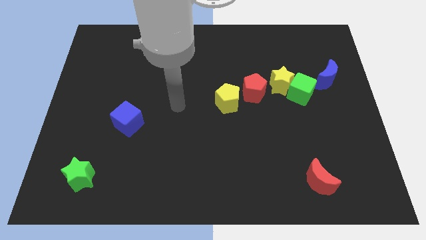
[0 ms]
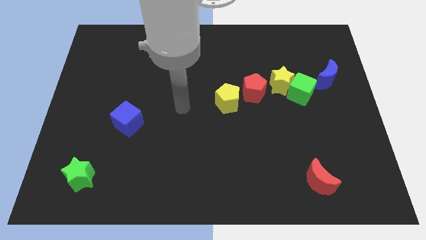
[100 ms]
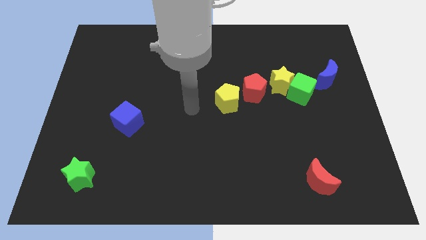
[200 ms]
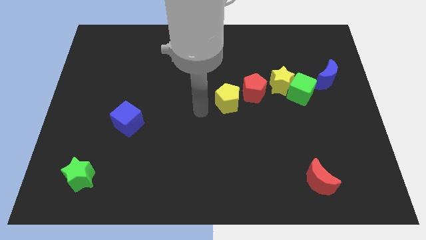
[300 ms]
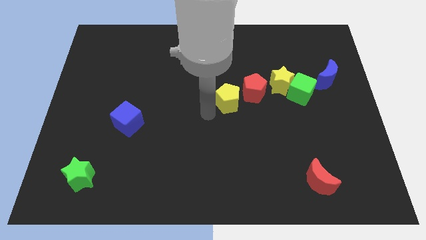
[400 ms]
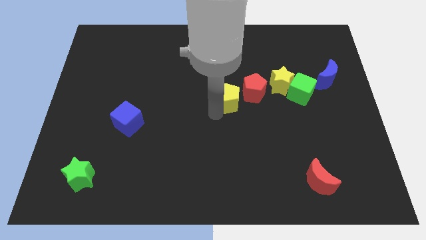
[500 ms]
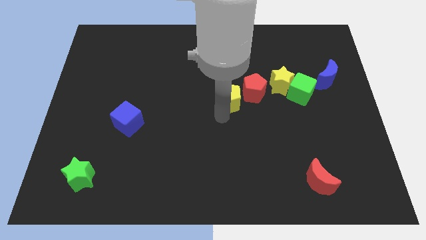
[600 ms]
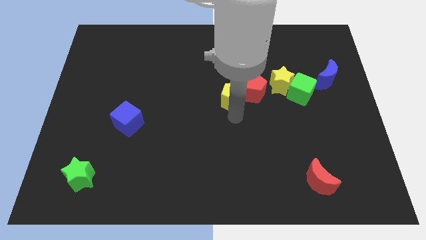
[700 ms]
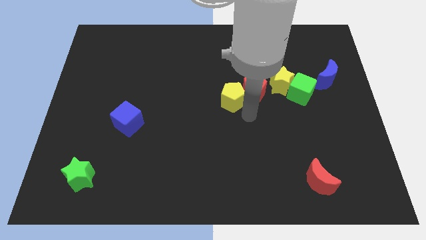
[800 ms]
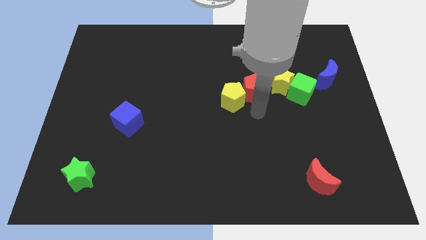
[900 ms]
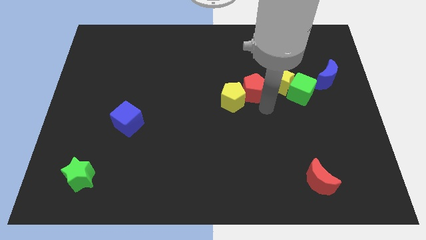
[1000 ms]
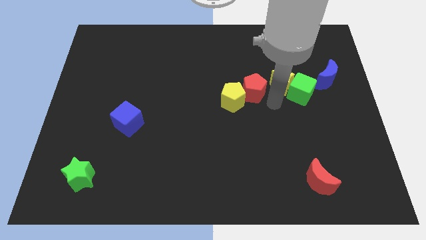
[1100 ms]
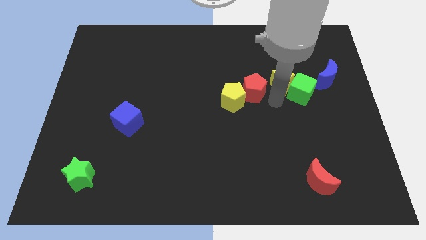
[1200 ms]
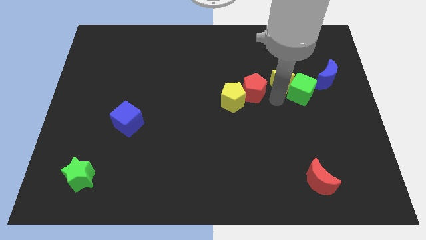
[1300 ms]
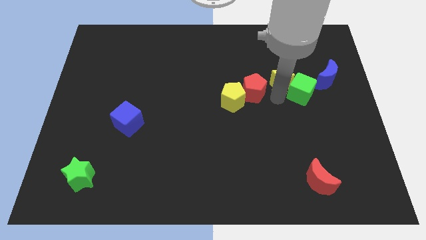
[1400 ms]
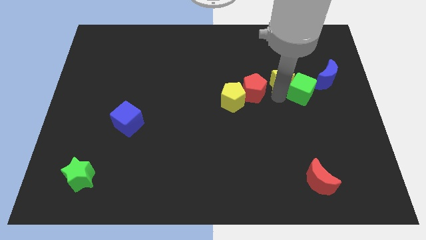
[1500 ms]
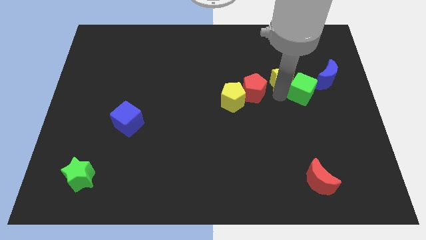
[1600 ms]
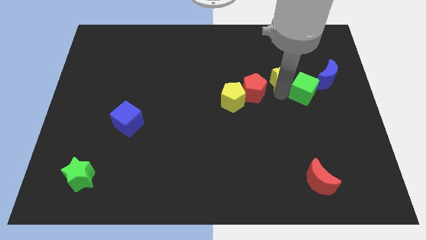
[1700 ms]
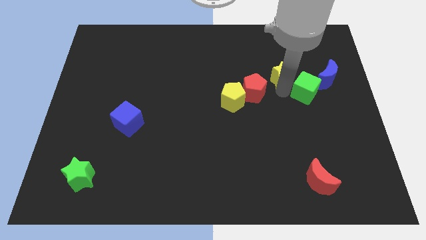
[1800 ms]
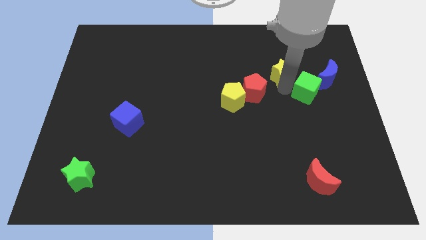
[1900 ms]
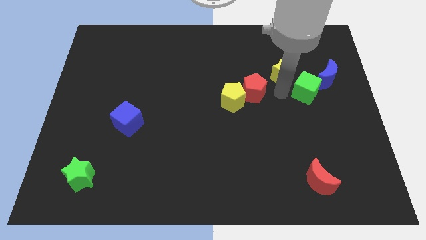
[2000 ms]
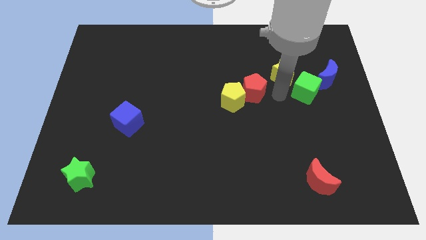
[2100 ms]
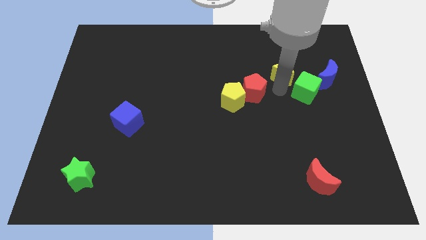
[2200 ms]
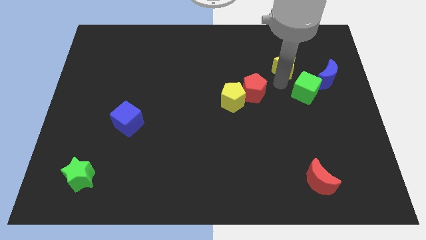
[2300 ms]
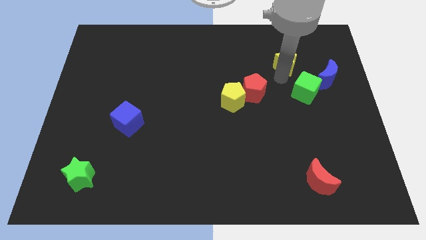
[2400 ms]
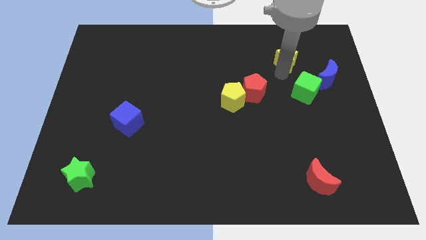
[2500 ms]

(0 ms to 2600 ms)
pull the yellow star apart from the green cube and red pentagon

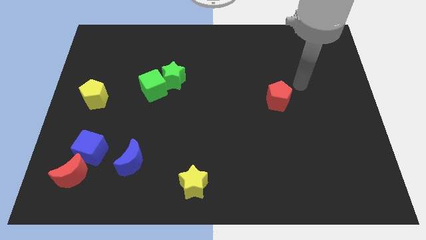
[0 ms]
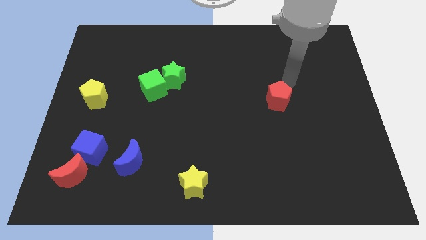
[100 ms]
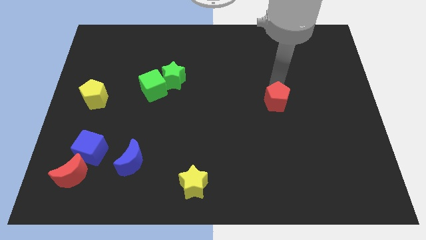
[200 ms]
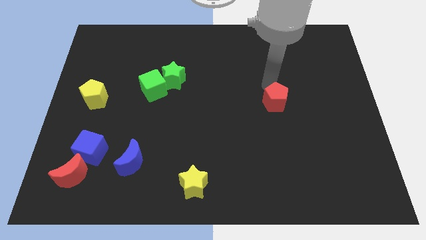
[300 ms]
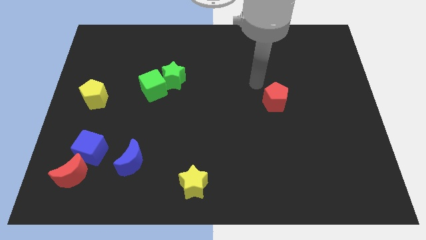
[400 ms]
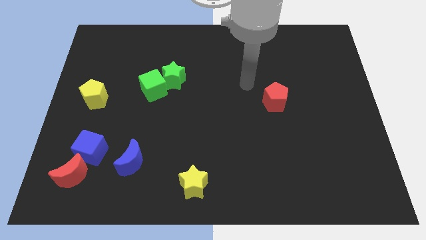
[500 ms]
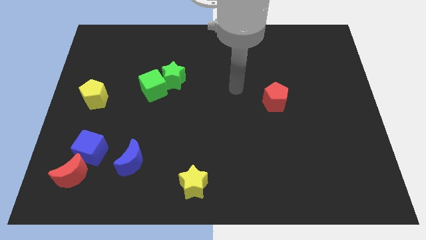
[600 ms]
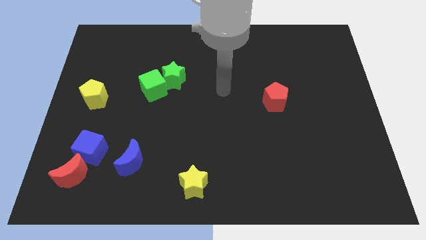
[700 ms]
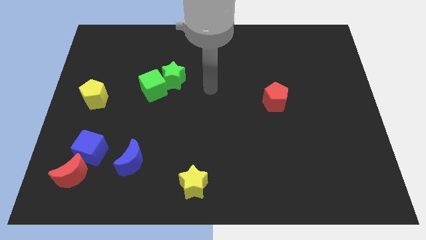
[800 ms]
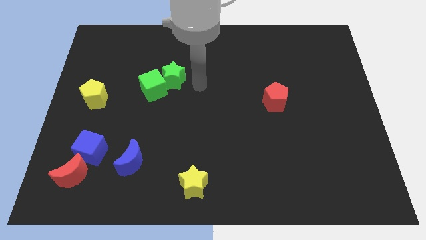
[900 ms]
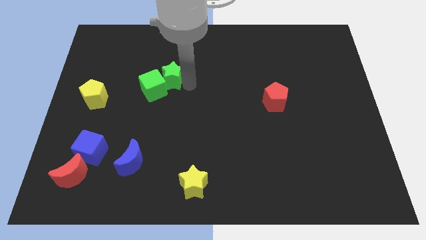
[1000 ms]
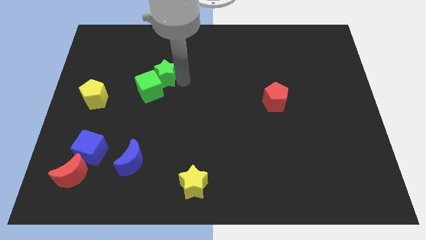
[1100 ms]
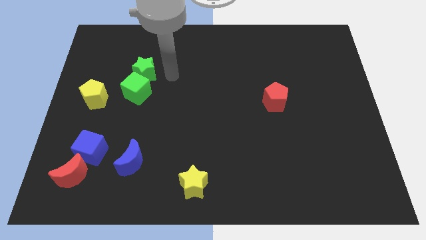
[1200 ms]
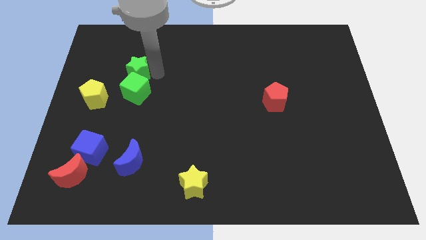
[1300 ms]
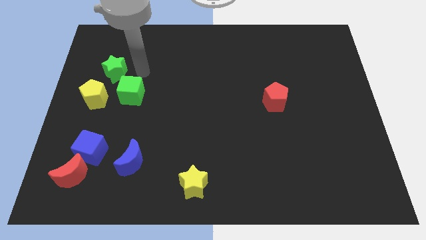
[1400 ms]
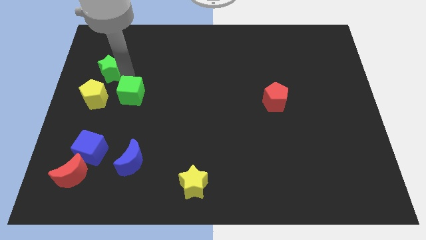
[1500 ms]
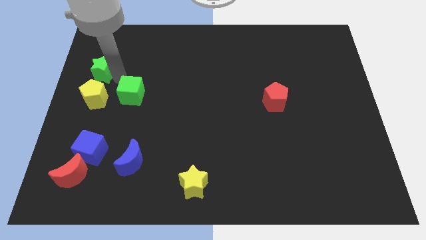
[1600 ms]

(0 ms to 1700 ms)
pull the green cube apart from the green star

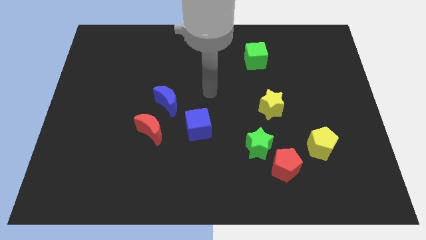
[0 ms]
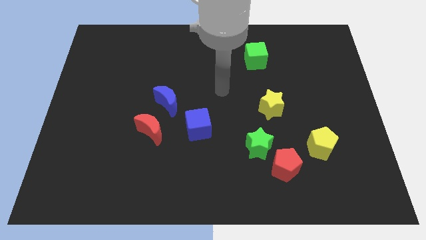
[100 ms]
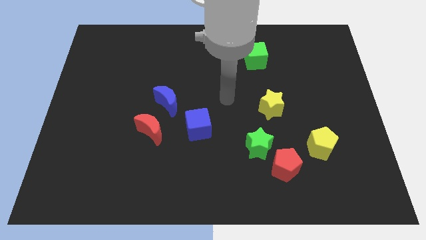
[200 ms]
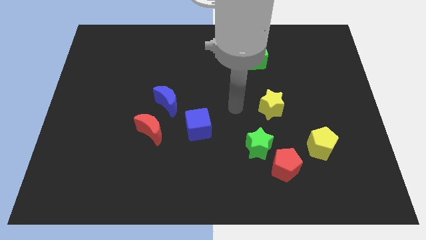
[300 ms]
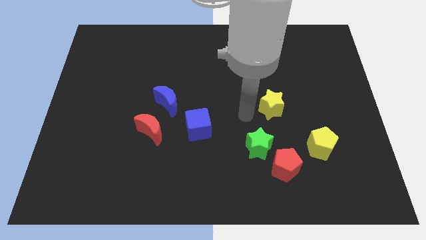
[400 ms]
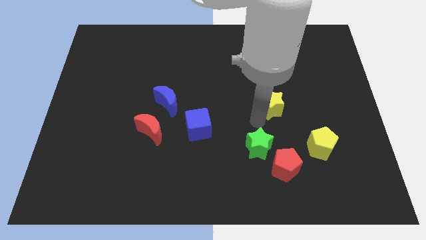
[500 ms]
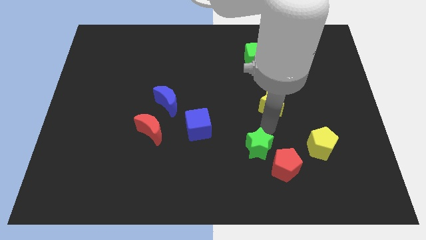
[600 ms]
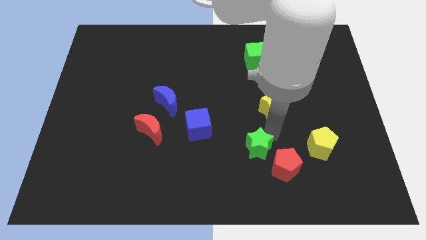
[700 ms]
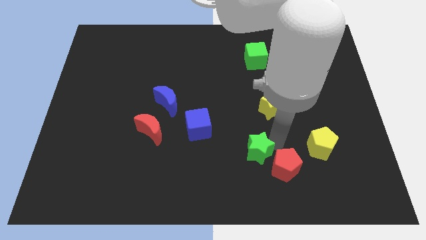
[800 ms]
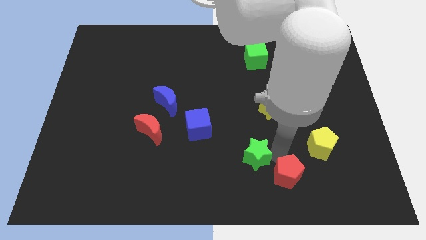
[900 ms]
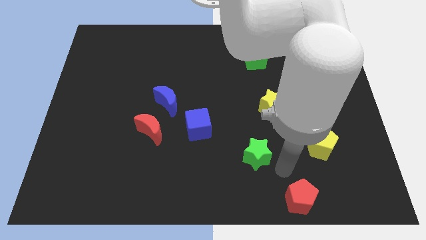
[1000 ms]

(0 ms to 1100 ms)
separate the green star from the red pentagon

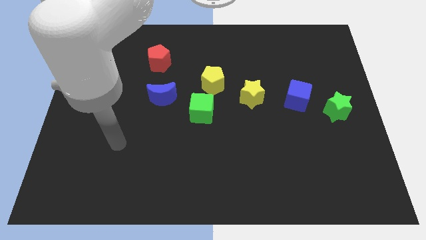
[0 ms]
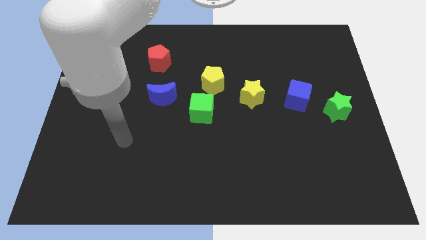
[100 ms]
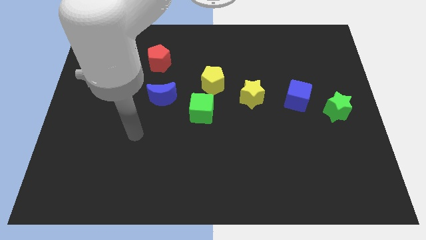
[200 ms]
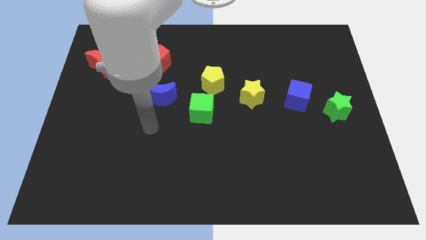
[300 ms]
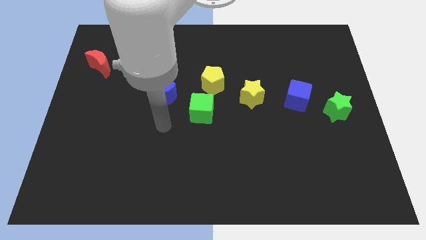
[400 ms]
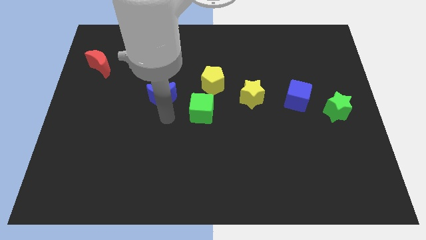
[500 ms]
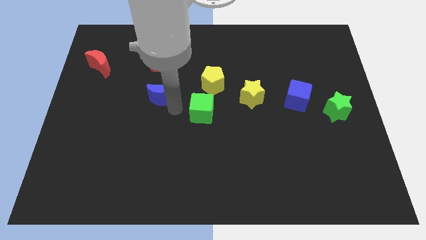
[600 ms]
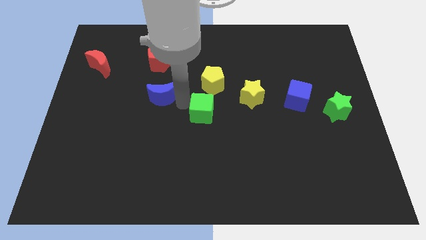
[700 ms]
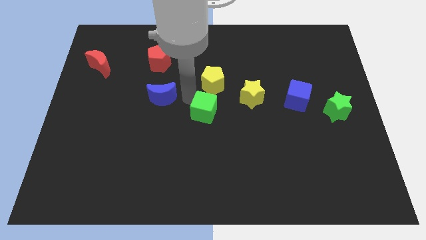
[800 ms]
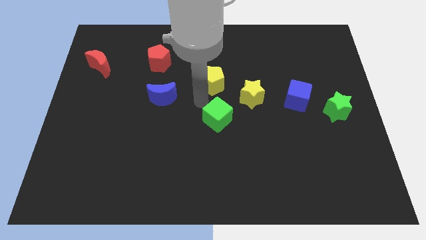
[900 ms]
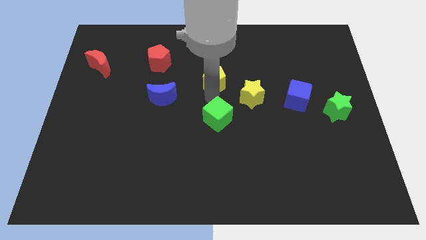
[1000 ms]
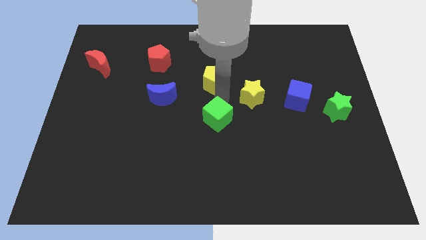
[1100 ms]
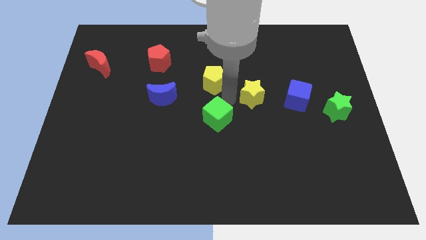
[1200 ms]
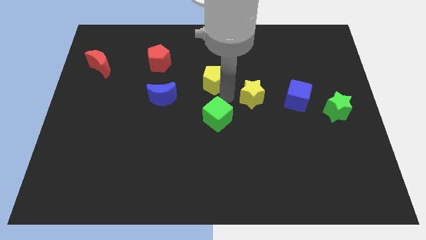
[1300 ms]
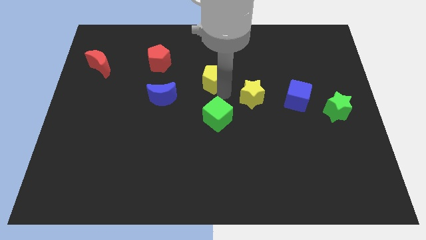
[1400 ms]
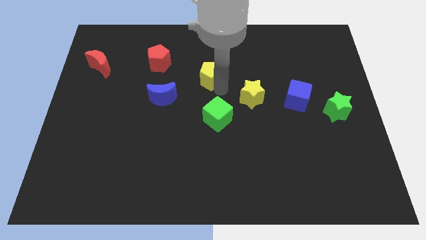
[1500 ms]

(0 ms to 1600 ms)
move the yellow pentagon away from the green cube and yellow star

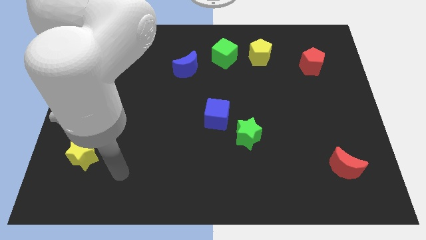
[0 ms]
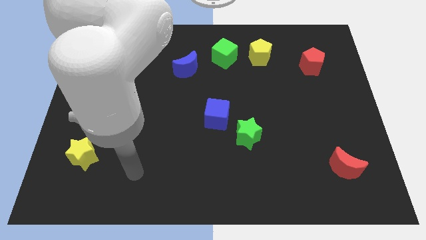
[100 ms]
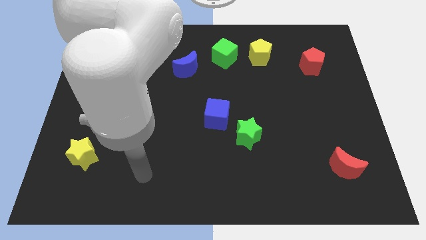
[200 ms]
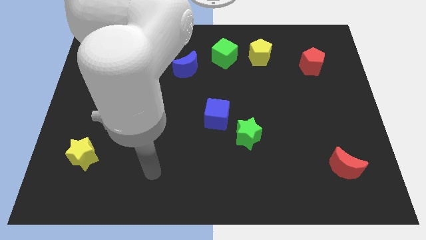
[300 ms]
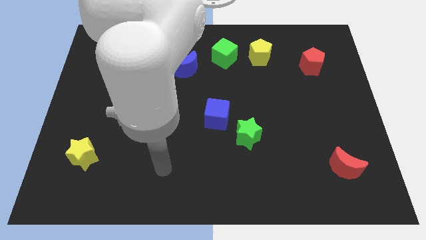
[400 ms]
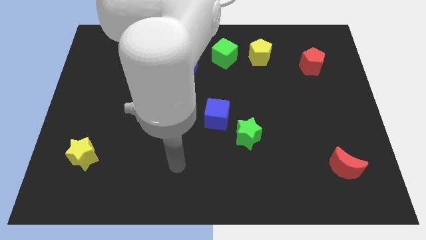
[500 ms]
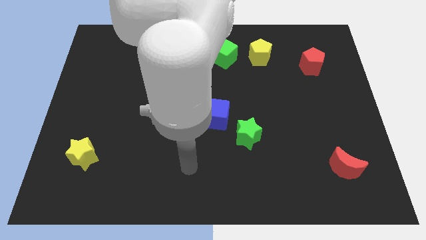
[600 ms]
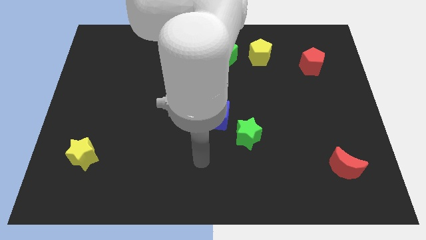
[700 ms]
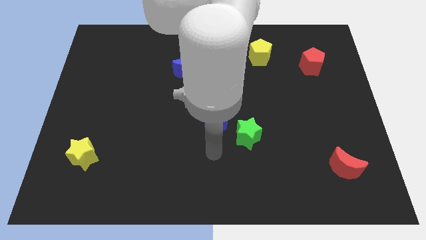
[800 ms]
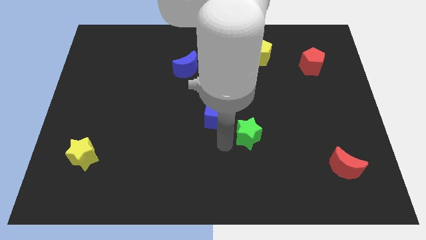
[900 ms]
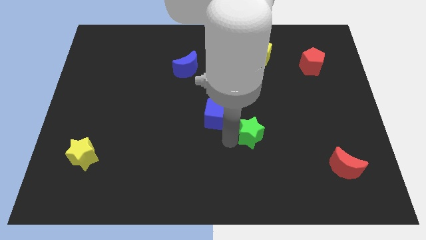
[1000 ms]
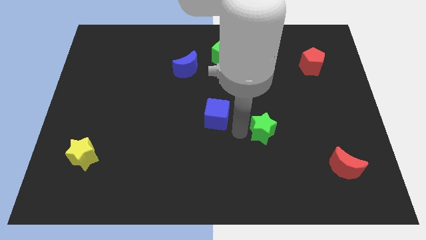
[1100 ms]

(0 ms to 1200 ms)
pull the blue cube apart from the green star

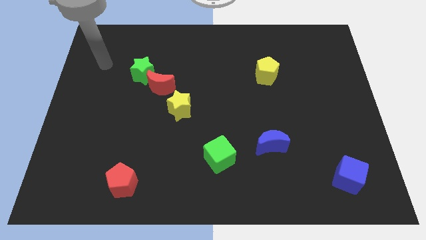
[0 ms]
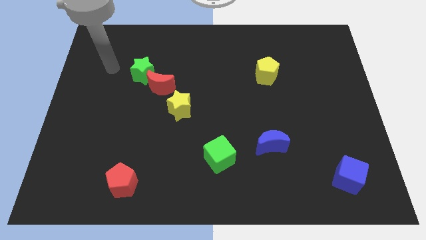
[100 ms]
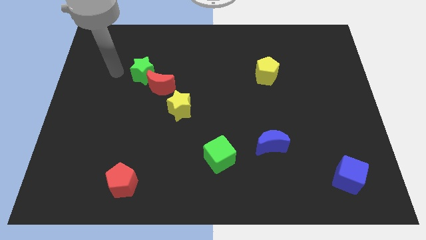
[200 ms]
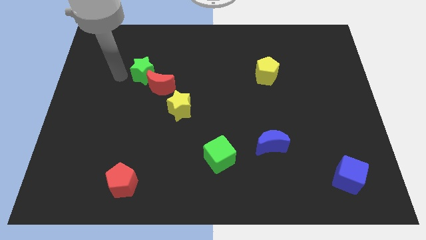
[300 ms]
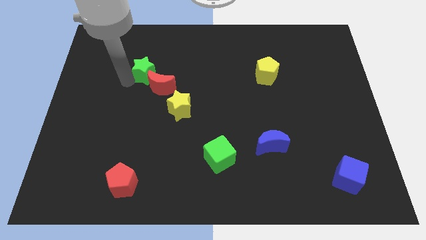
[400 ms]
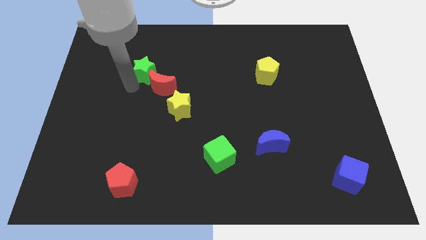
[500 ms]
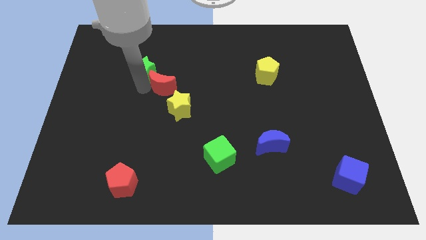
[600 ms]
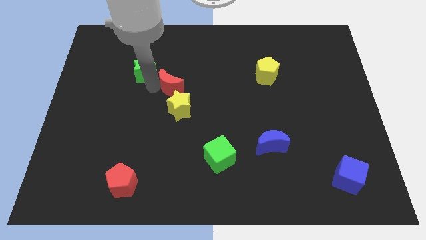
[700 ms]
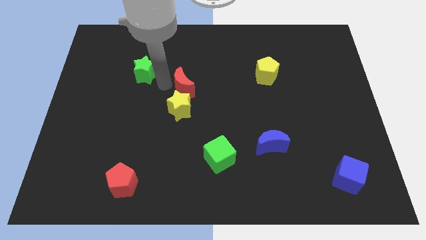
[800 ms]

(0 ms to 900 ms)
move the green star away from the red moon

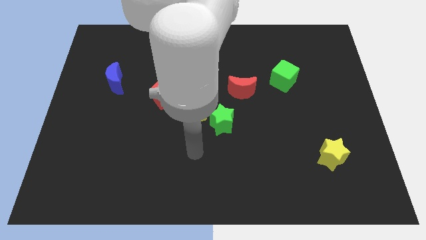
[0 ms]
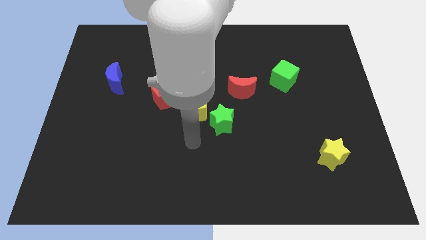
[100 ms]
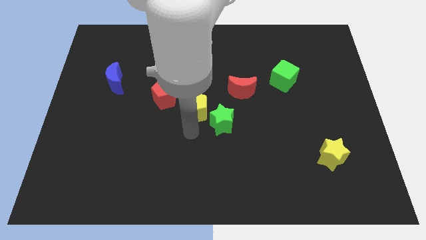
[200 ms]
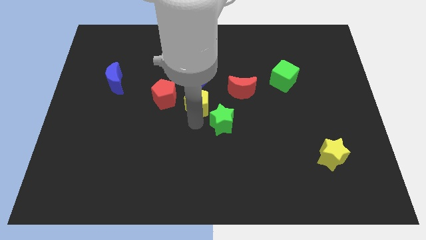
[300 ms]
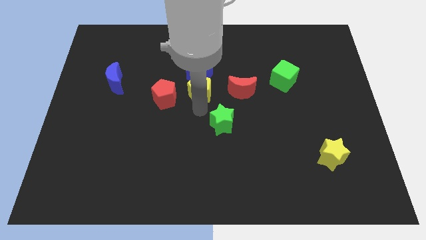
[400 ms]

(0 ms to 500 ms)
move the green star away from the yellow pentagon
